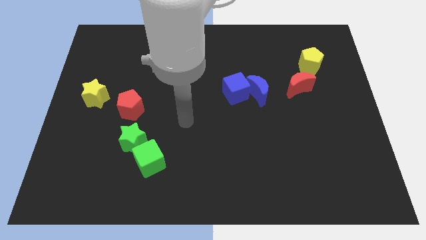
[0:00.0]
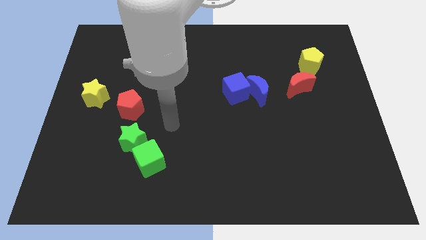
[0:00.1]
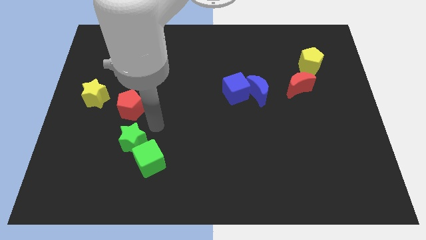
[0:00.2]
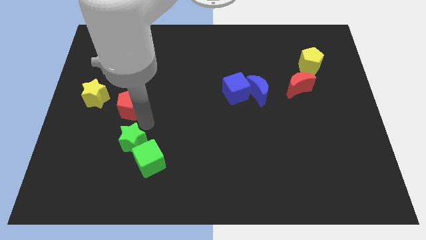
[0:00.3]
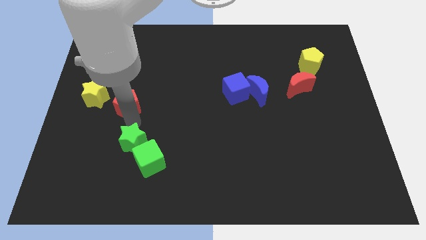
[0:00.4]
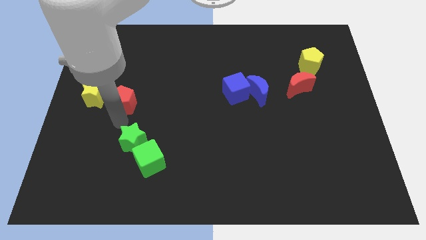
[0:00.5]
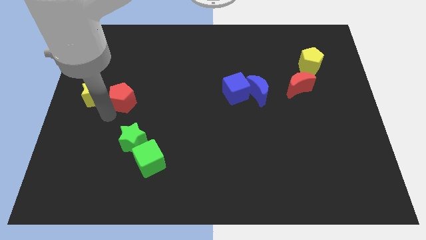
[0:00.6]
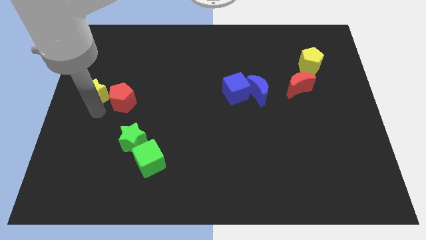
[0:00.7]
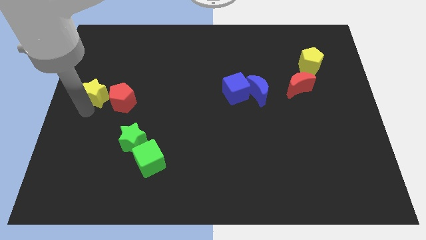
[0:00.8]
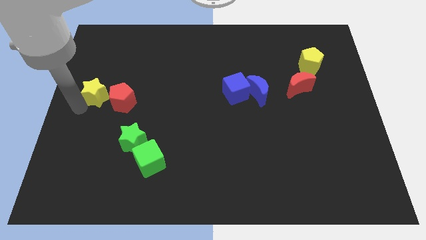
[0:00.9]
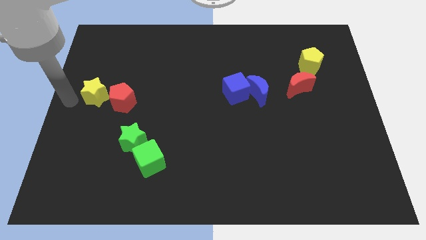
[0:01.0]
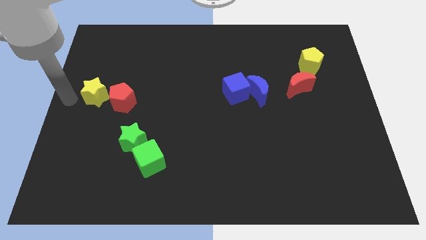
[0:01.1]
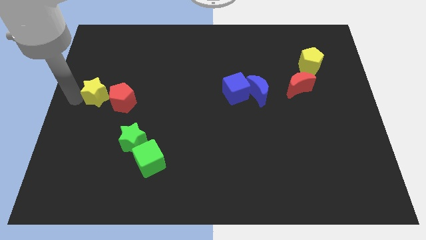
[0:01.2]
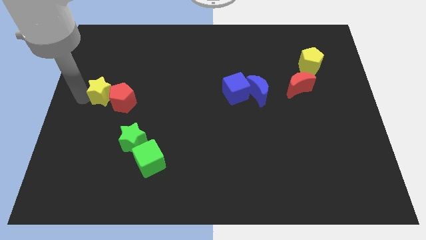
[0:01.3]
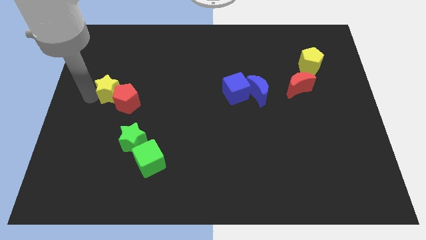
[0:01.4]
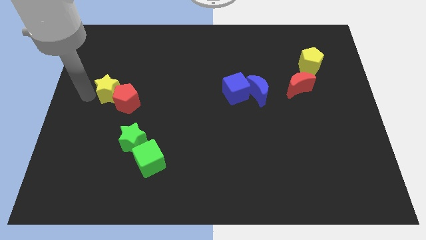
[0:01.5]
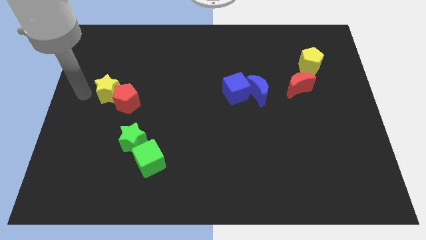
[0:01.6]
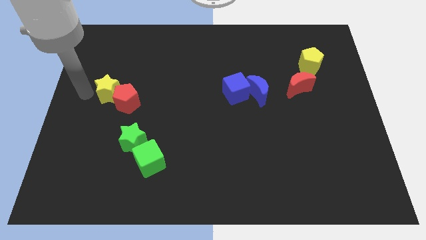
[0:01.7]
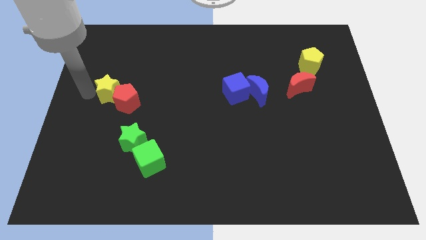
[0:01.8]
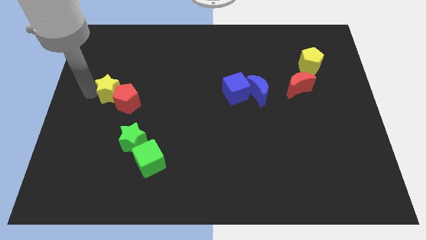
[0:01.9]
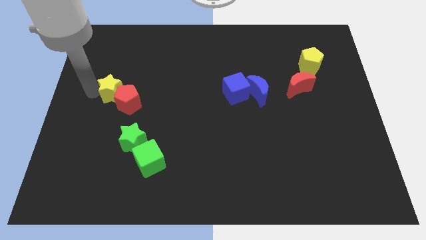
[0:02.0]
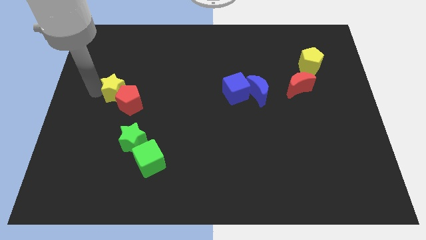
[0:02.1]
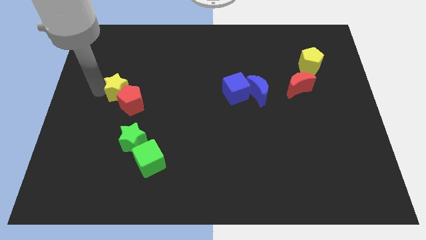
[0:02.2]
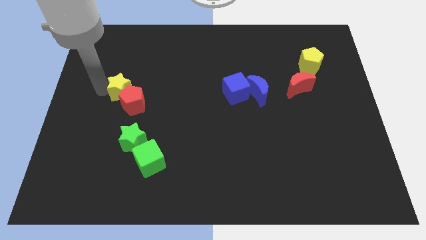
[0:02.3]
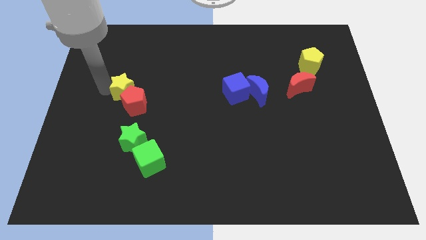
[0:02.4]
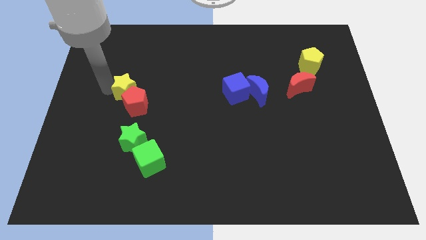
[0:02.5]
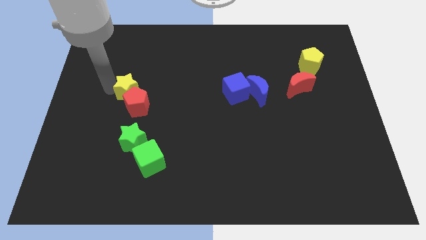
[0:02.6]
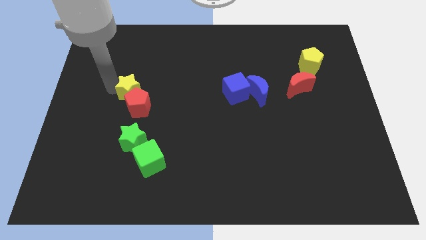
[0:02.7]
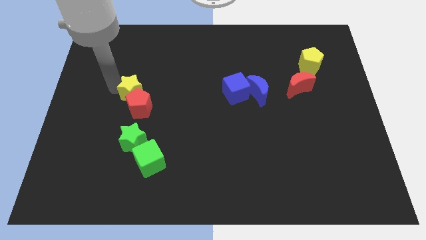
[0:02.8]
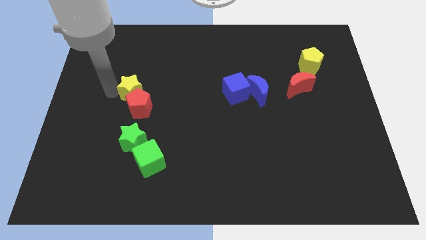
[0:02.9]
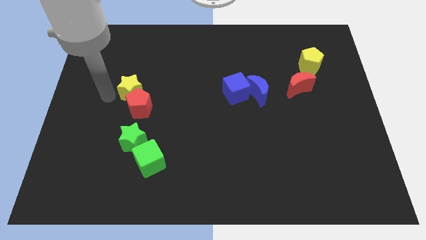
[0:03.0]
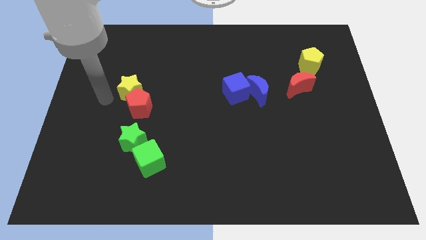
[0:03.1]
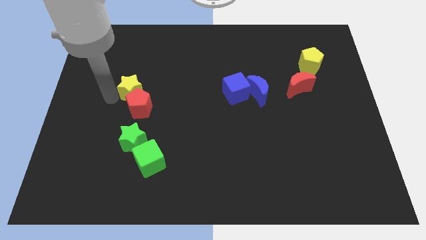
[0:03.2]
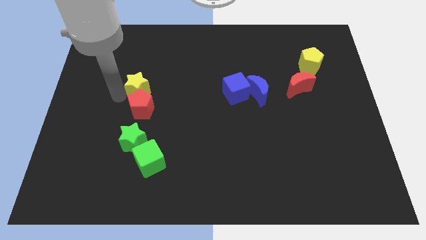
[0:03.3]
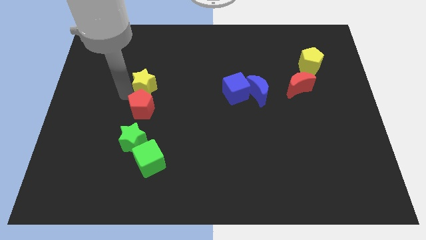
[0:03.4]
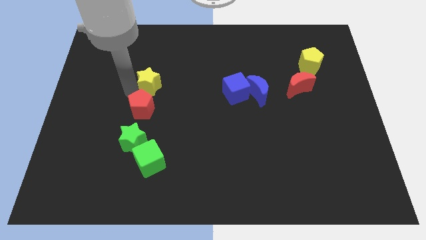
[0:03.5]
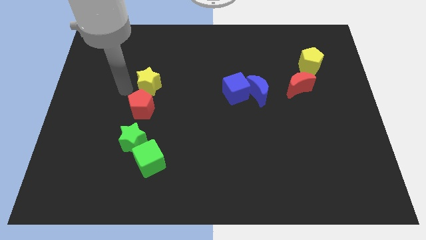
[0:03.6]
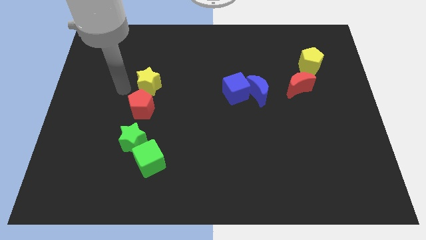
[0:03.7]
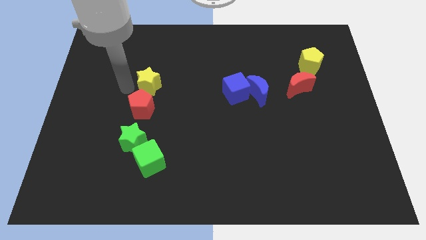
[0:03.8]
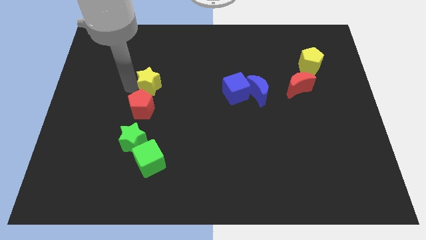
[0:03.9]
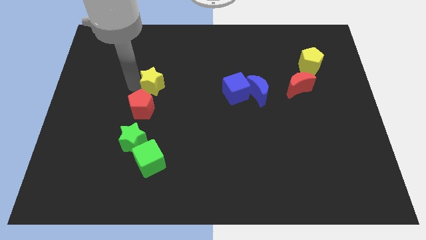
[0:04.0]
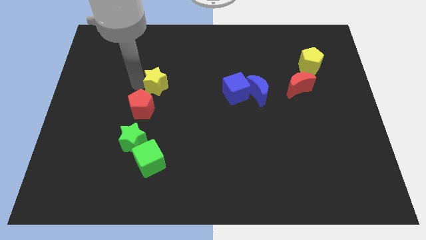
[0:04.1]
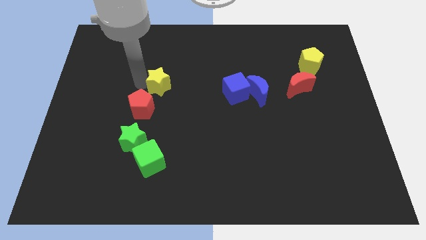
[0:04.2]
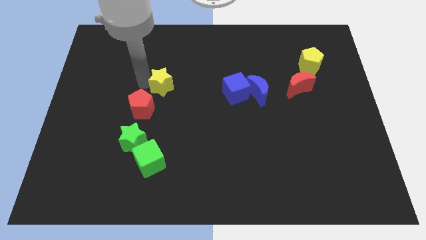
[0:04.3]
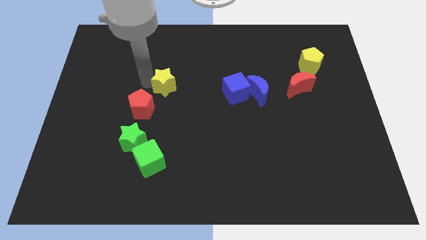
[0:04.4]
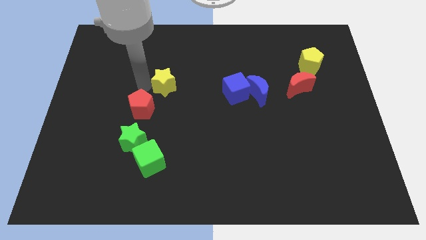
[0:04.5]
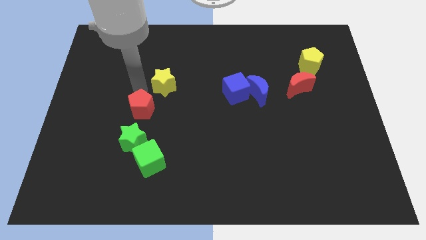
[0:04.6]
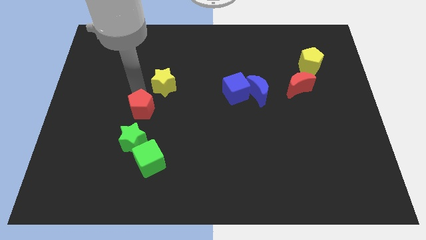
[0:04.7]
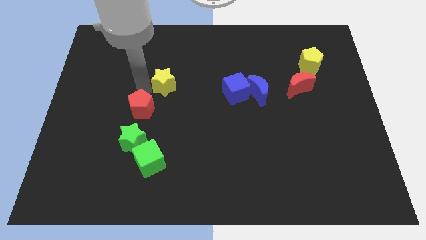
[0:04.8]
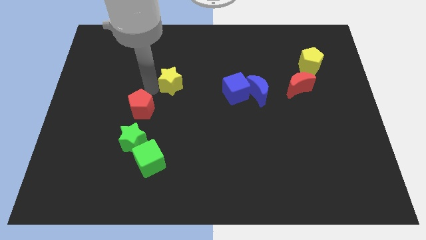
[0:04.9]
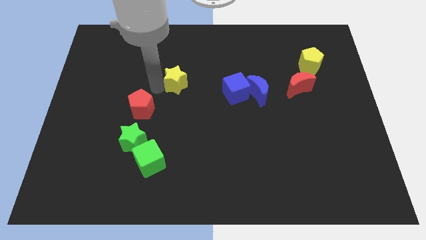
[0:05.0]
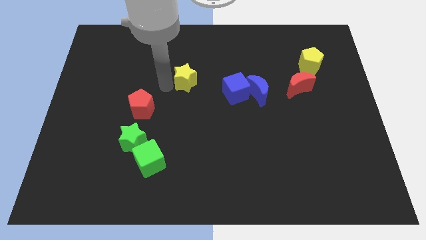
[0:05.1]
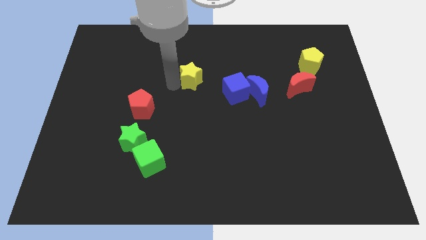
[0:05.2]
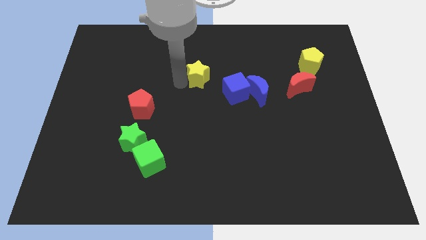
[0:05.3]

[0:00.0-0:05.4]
put the yellow star diagonally up and to the left of the blue cube

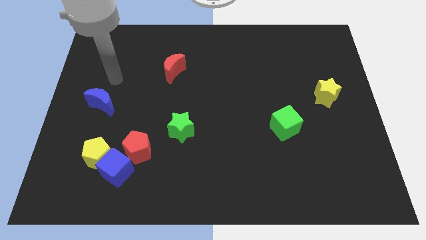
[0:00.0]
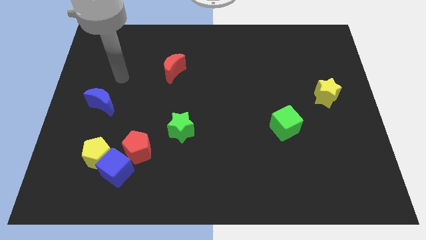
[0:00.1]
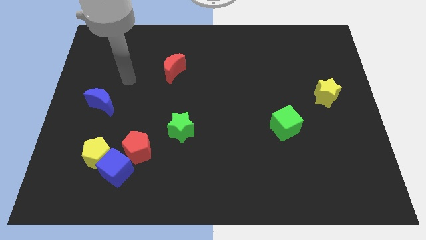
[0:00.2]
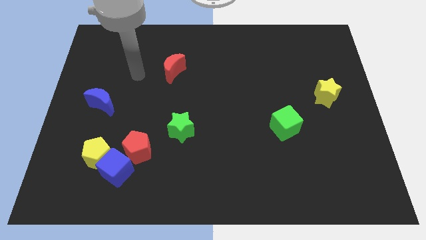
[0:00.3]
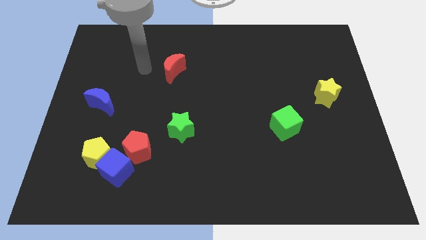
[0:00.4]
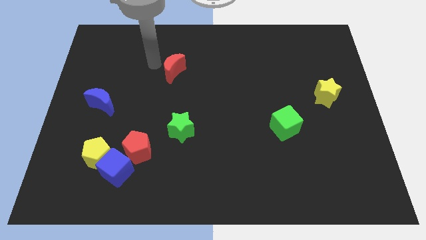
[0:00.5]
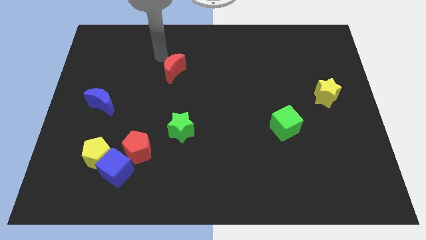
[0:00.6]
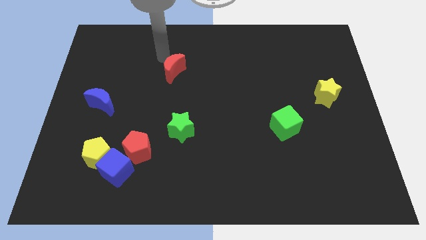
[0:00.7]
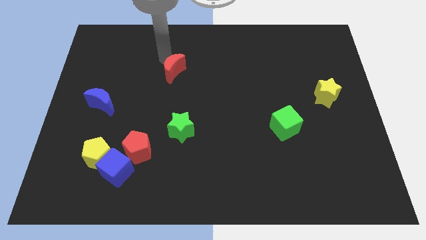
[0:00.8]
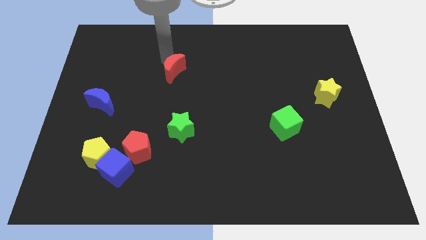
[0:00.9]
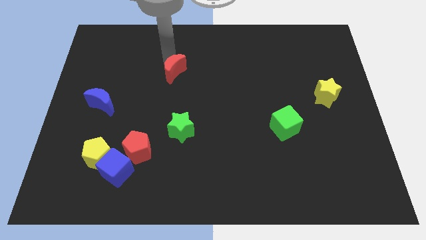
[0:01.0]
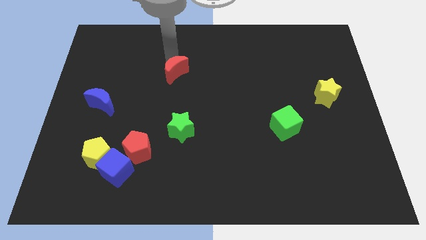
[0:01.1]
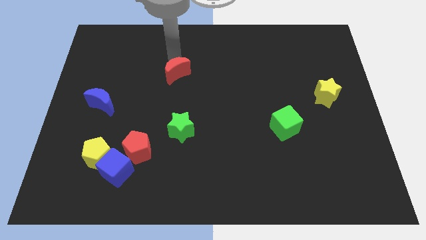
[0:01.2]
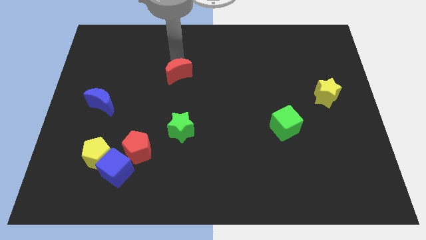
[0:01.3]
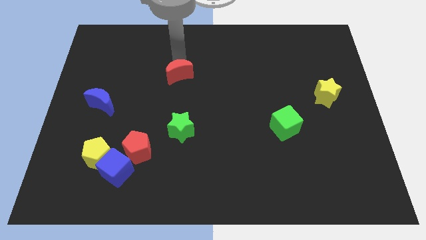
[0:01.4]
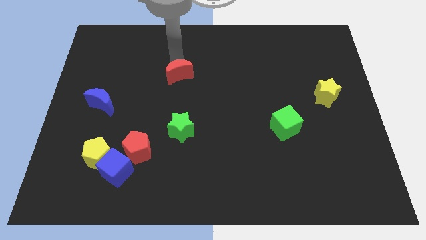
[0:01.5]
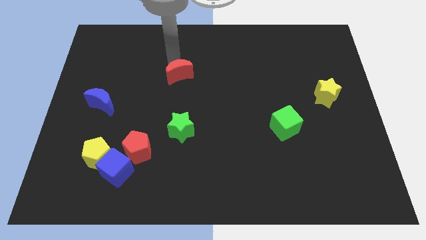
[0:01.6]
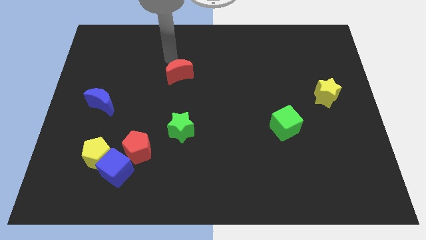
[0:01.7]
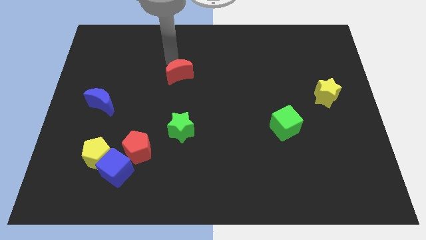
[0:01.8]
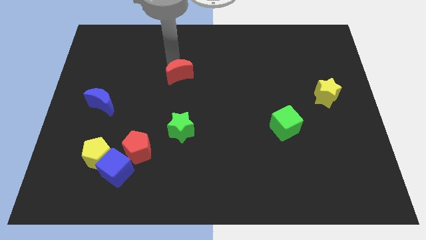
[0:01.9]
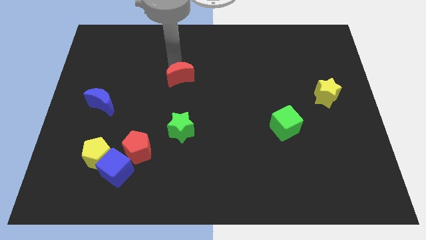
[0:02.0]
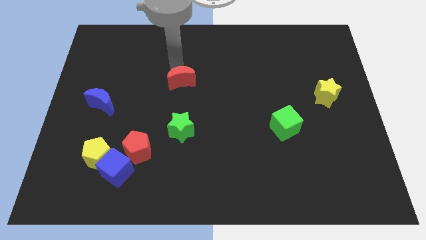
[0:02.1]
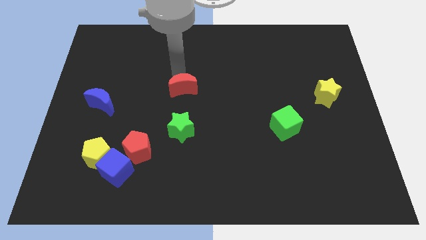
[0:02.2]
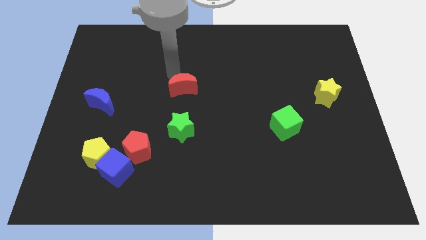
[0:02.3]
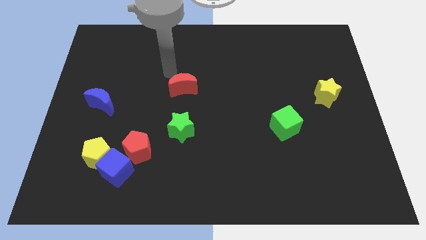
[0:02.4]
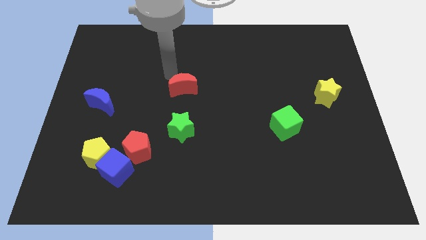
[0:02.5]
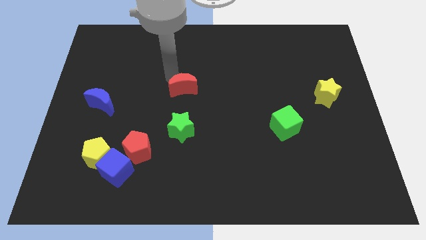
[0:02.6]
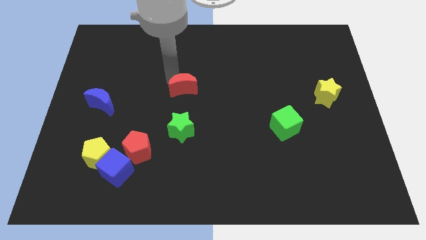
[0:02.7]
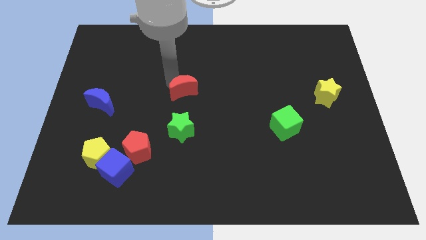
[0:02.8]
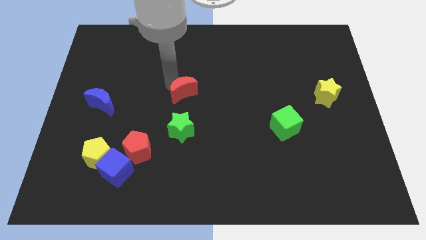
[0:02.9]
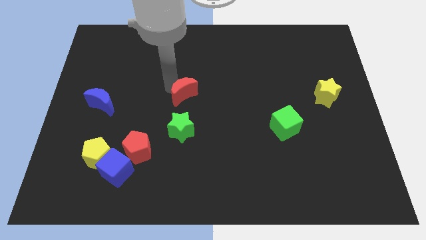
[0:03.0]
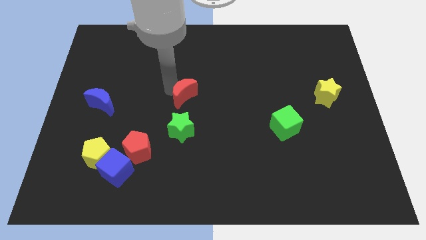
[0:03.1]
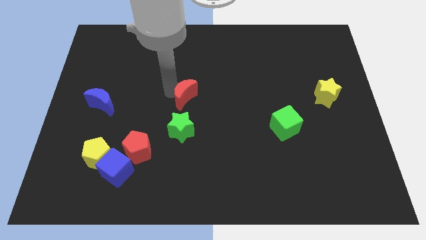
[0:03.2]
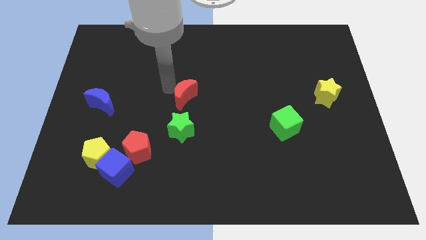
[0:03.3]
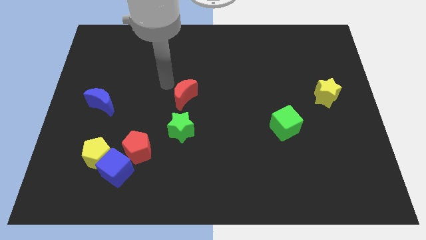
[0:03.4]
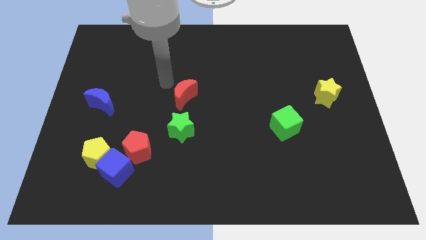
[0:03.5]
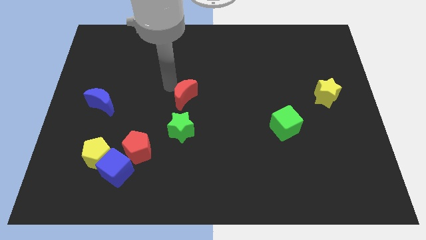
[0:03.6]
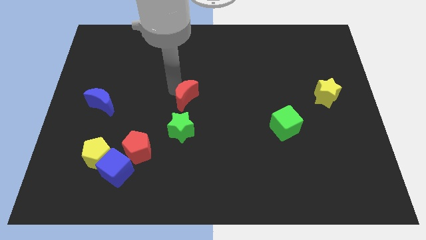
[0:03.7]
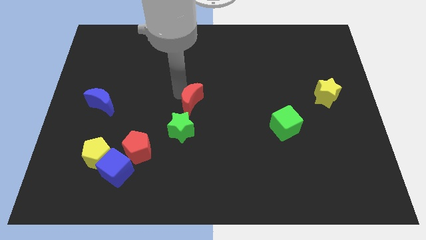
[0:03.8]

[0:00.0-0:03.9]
put the red moon to the top right of the green star
